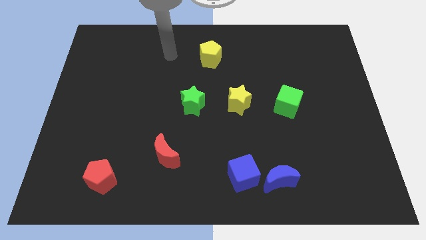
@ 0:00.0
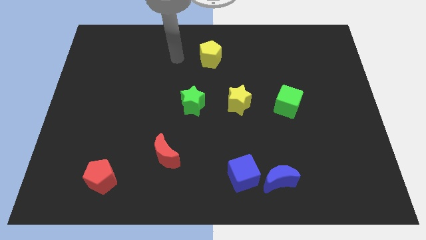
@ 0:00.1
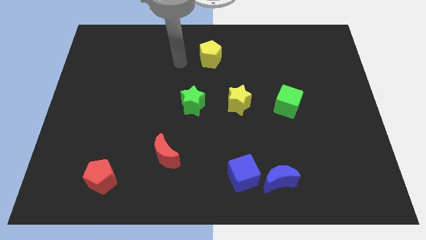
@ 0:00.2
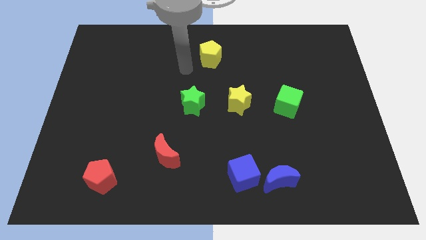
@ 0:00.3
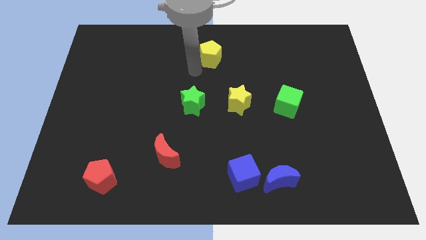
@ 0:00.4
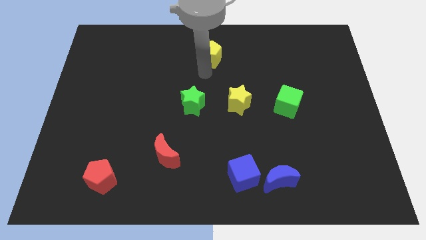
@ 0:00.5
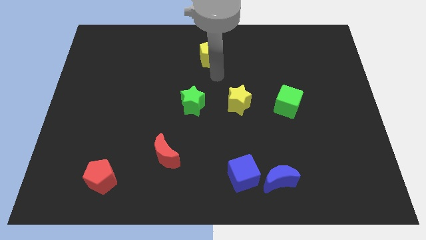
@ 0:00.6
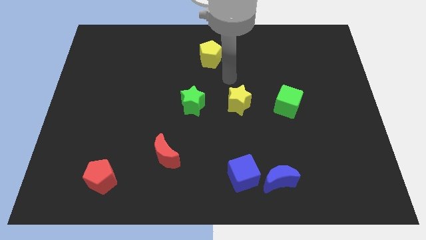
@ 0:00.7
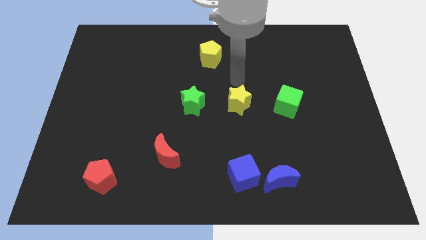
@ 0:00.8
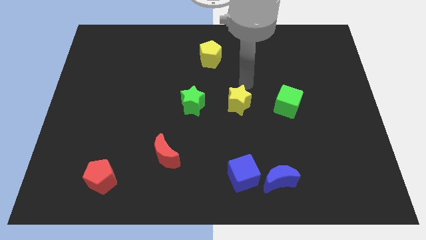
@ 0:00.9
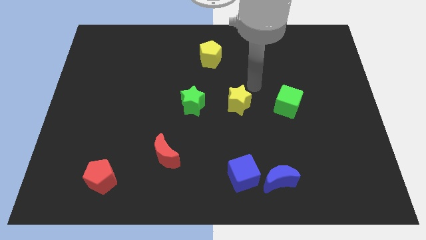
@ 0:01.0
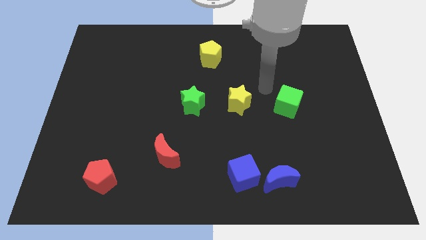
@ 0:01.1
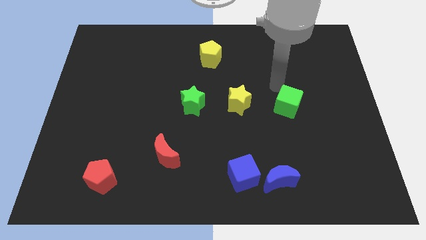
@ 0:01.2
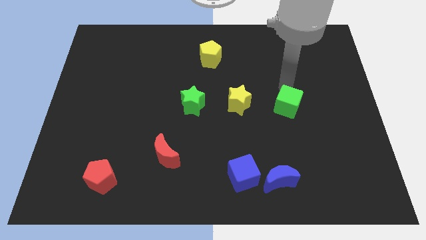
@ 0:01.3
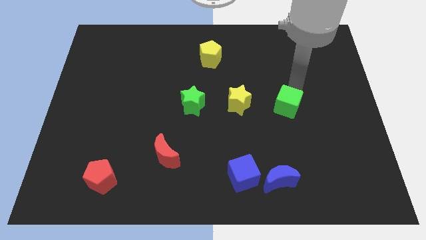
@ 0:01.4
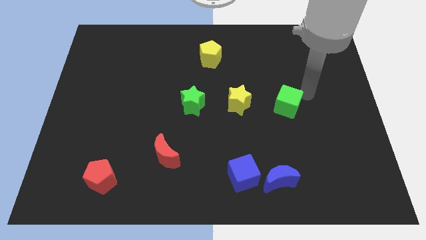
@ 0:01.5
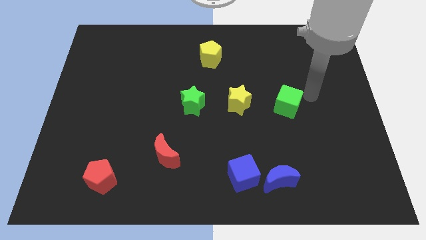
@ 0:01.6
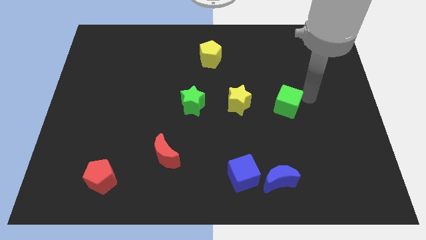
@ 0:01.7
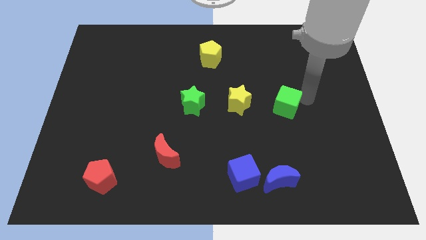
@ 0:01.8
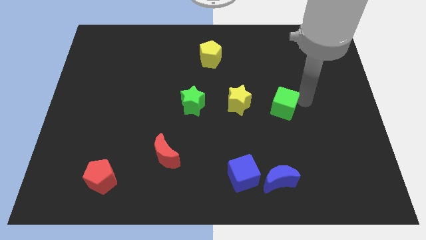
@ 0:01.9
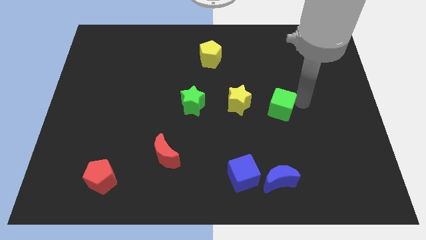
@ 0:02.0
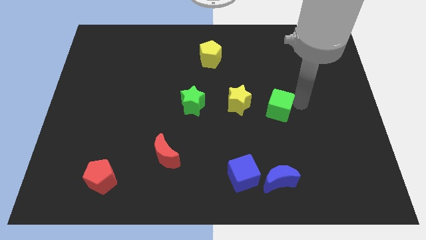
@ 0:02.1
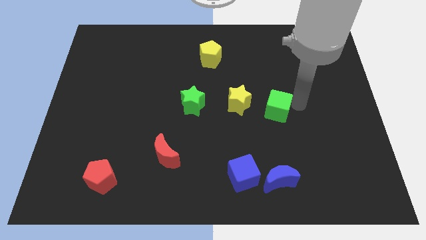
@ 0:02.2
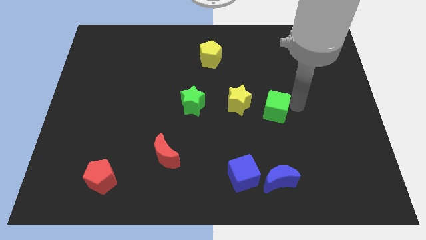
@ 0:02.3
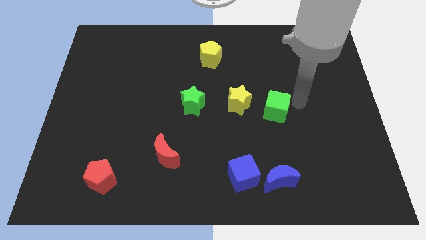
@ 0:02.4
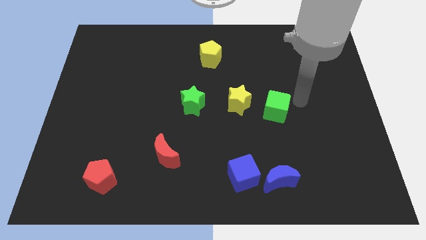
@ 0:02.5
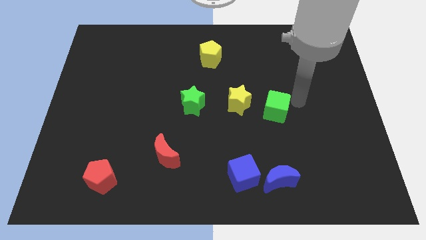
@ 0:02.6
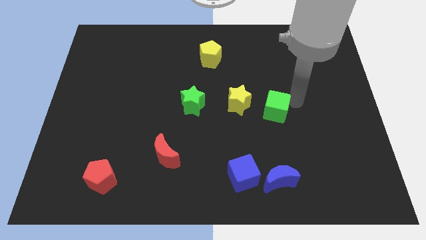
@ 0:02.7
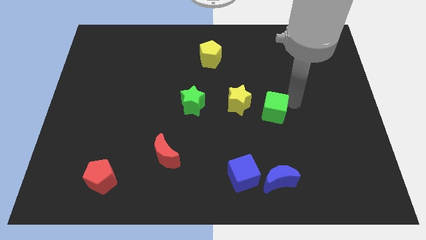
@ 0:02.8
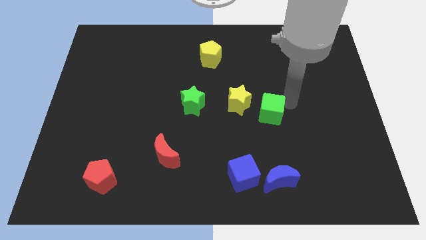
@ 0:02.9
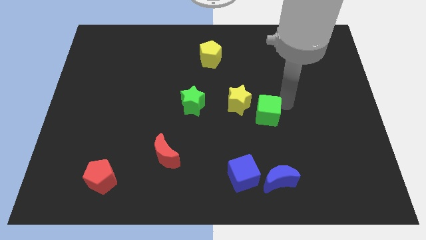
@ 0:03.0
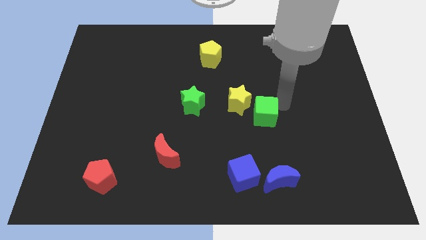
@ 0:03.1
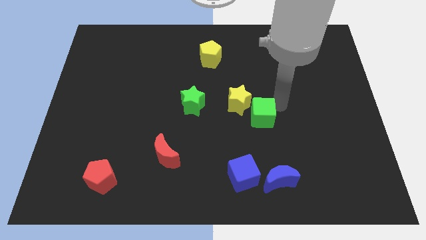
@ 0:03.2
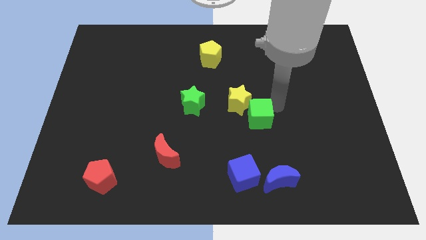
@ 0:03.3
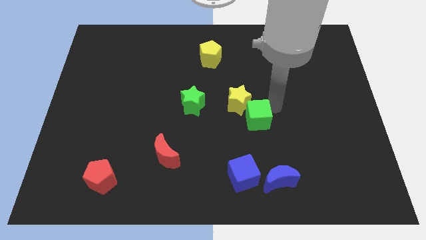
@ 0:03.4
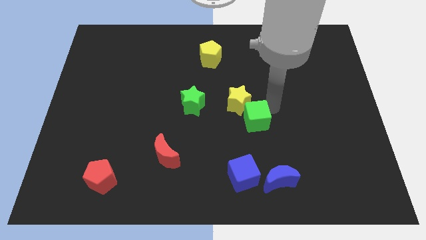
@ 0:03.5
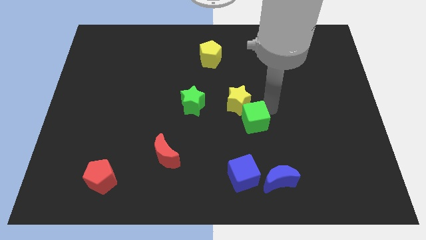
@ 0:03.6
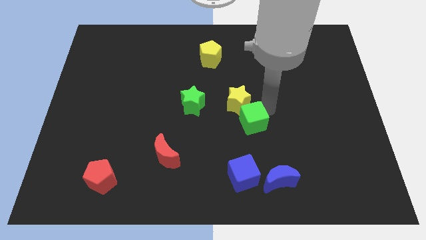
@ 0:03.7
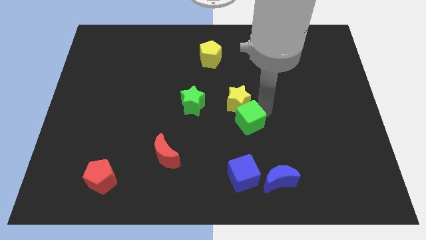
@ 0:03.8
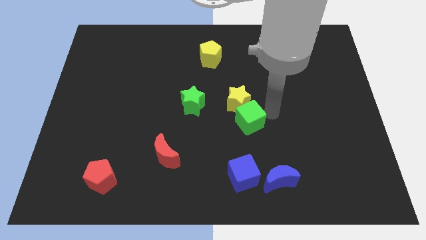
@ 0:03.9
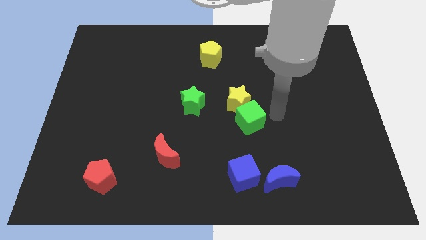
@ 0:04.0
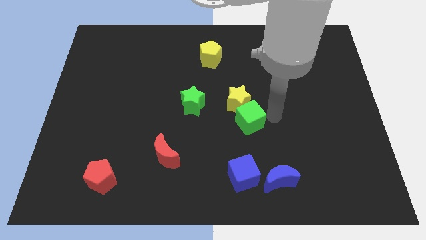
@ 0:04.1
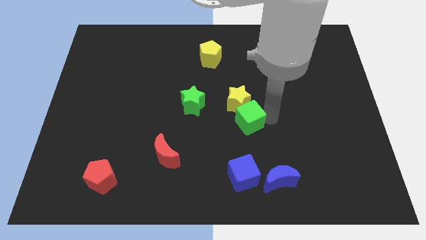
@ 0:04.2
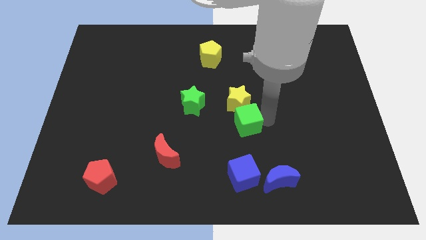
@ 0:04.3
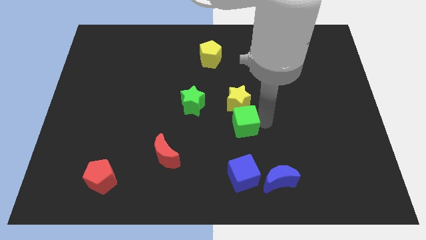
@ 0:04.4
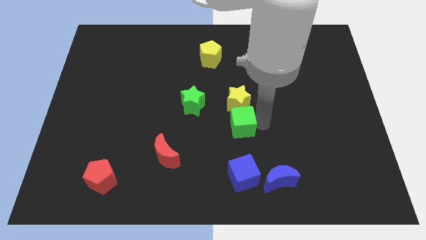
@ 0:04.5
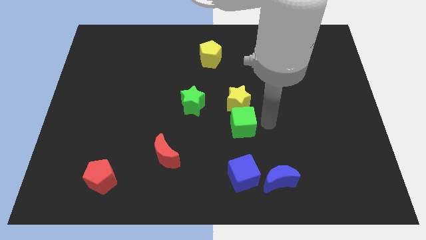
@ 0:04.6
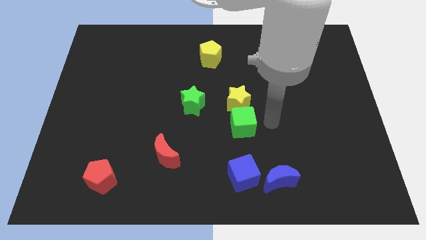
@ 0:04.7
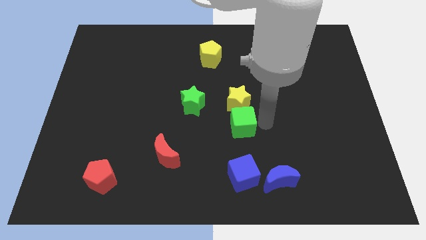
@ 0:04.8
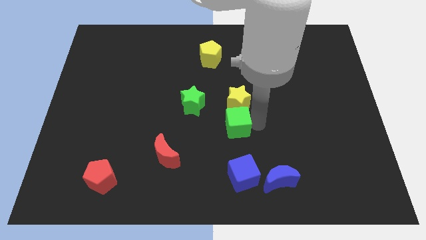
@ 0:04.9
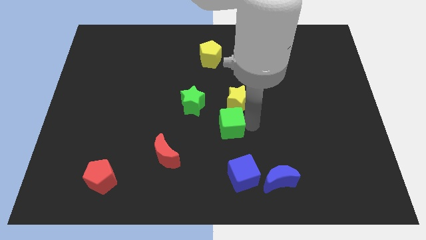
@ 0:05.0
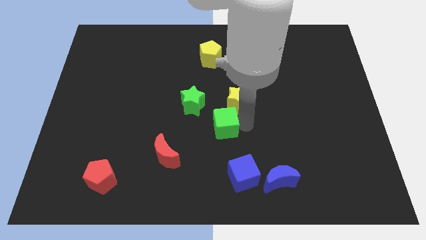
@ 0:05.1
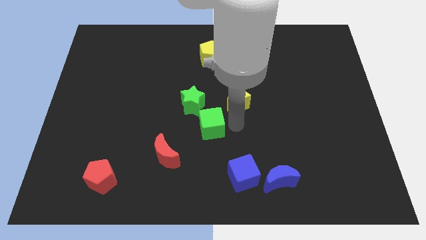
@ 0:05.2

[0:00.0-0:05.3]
move the green cube to the top right side of the red moon

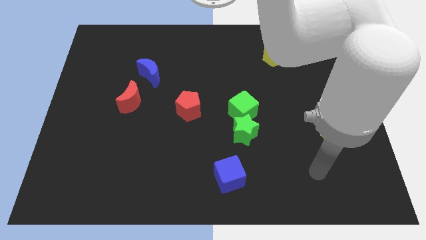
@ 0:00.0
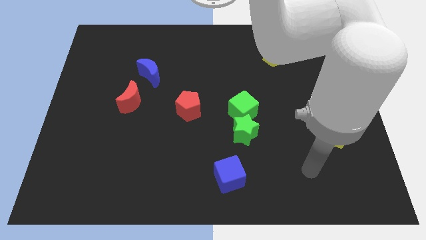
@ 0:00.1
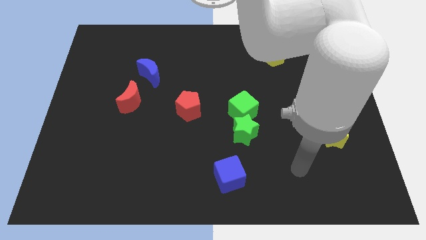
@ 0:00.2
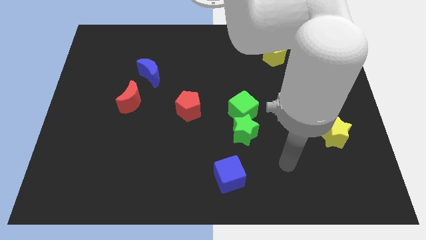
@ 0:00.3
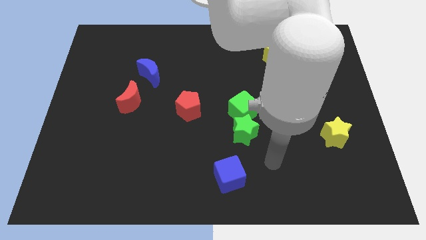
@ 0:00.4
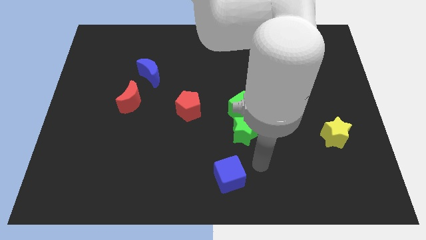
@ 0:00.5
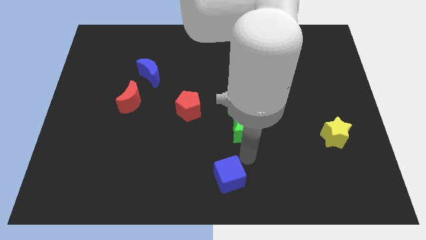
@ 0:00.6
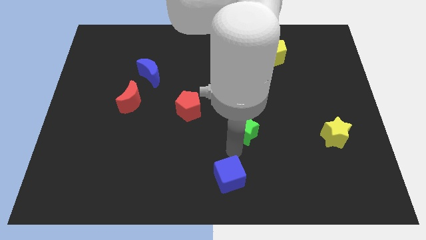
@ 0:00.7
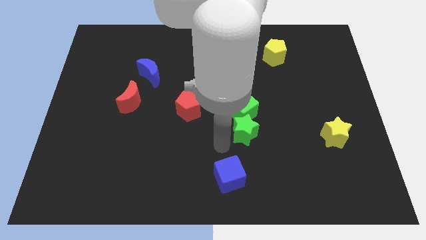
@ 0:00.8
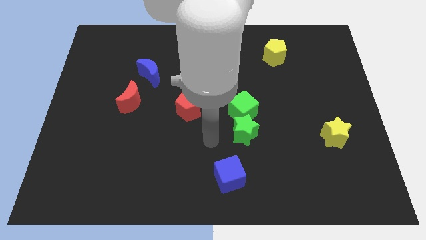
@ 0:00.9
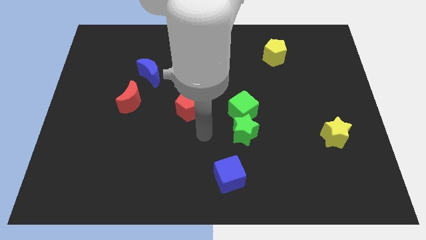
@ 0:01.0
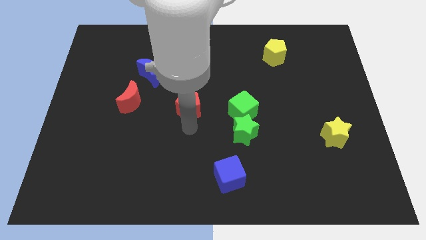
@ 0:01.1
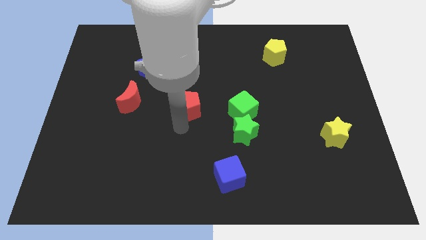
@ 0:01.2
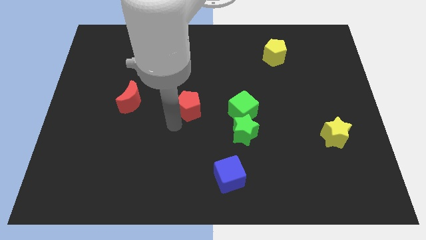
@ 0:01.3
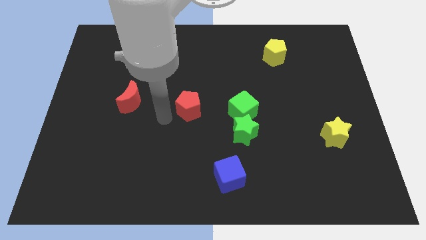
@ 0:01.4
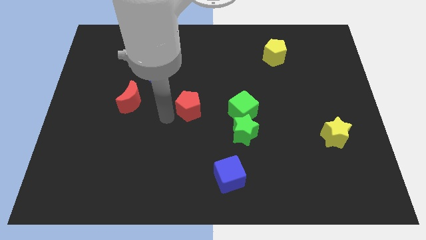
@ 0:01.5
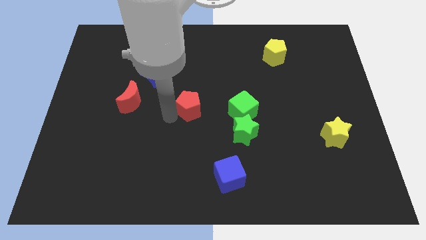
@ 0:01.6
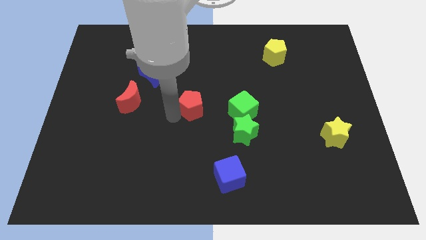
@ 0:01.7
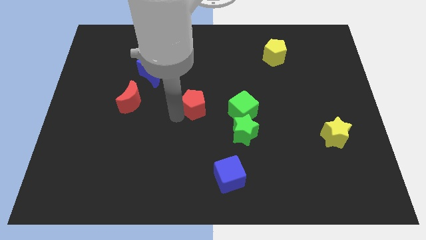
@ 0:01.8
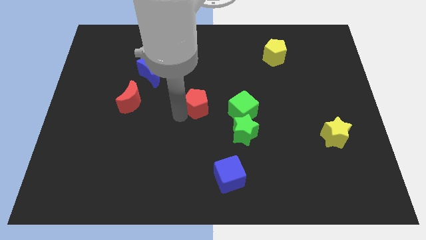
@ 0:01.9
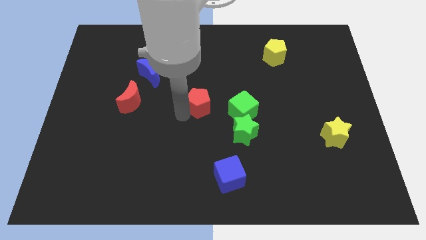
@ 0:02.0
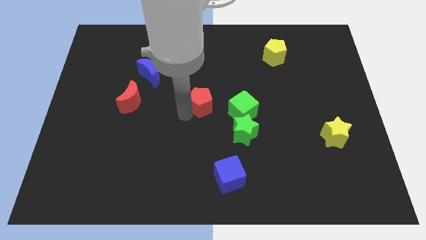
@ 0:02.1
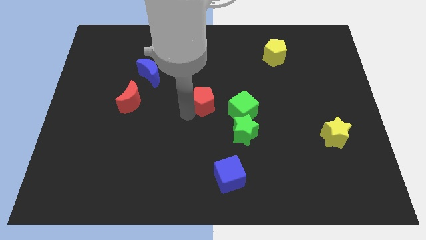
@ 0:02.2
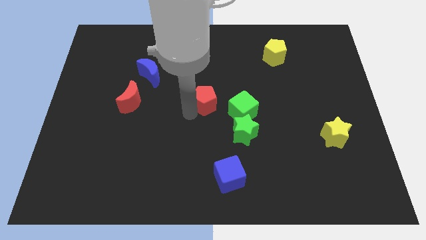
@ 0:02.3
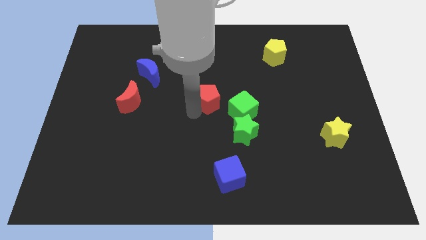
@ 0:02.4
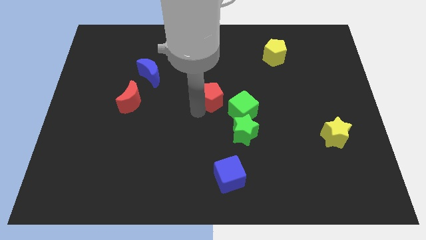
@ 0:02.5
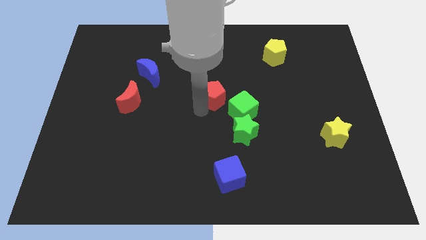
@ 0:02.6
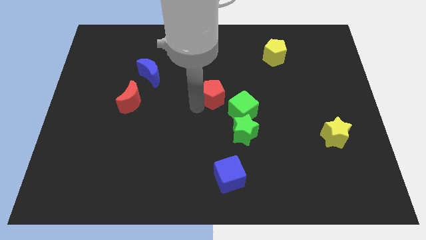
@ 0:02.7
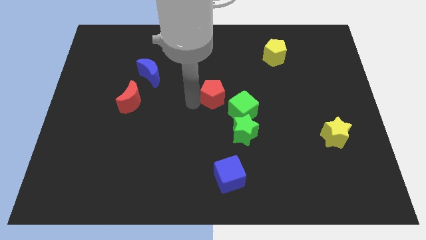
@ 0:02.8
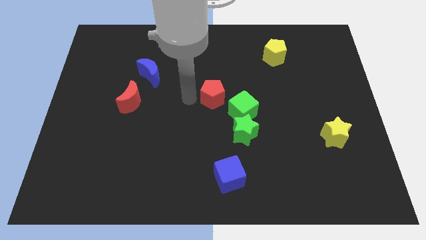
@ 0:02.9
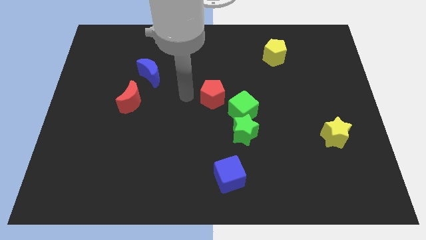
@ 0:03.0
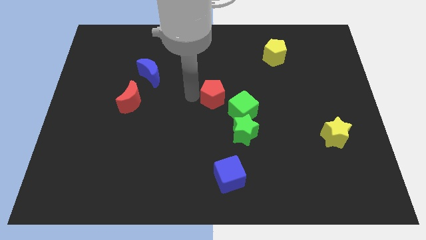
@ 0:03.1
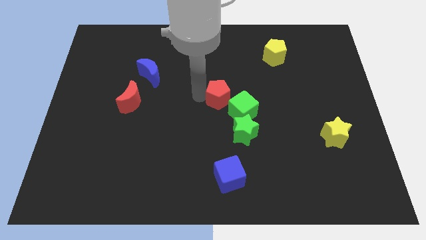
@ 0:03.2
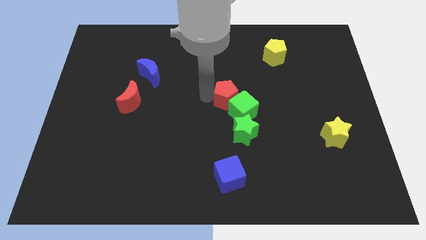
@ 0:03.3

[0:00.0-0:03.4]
move the red pentagon above the green star

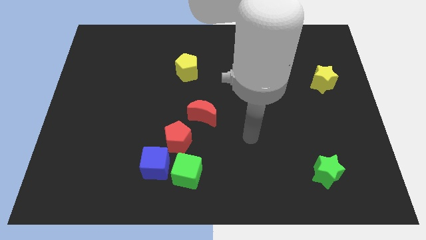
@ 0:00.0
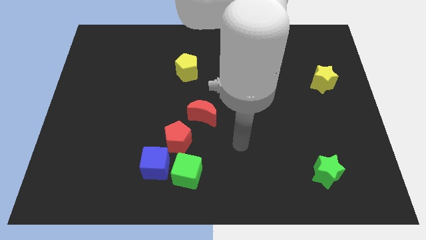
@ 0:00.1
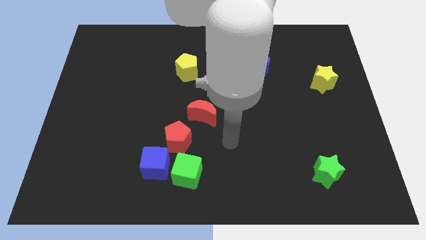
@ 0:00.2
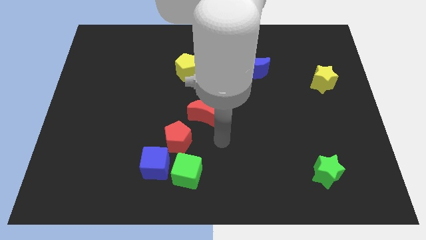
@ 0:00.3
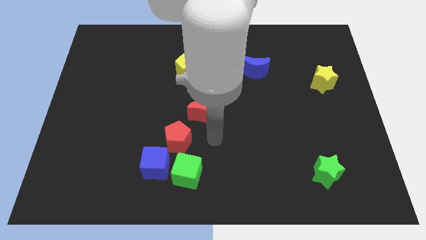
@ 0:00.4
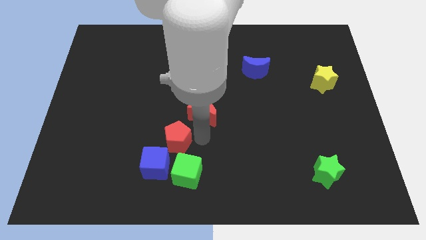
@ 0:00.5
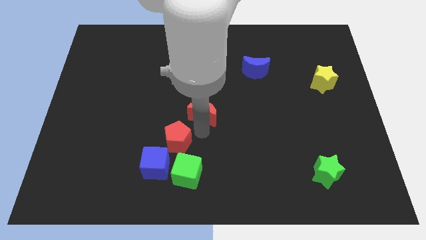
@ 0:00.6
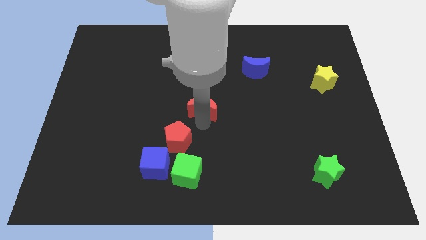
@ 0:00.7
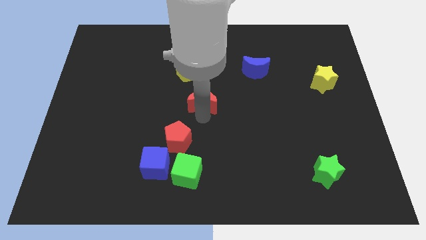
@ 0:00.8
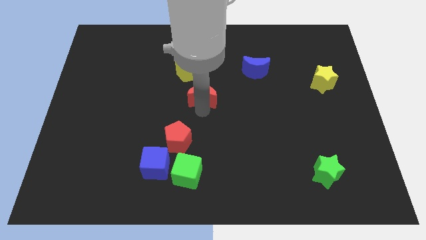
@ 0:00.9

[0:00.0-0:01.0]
slide the red moon to the bottom right of the yellow pentagon
